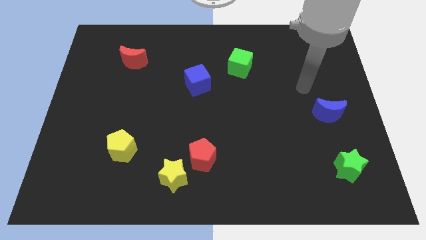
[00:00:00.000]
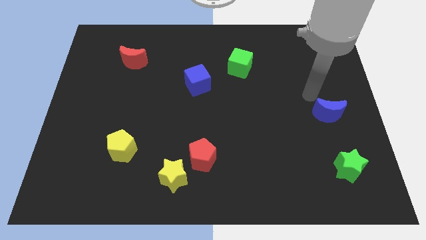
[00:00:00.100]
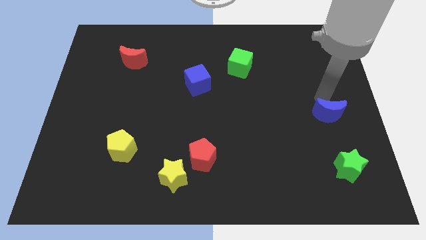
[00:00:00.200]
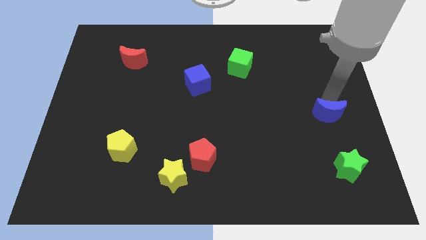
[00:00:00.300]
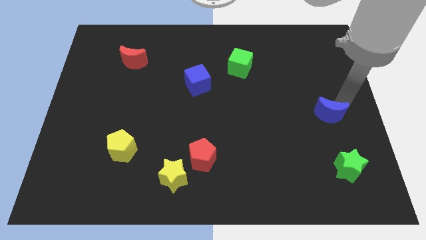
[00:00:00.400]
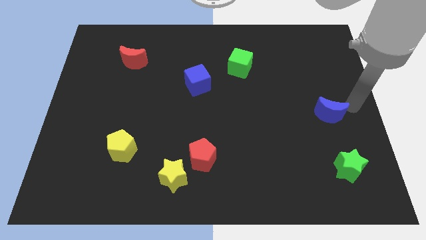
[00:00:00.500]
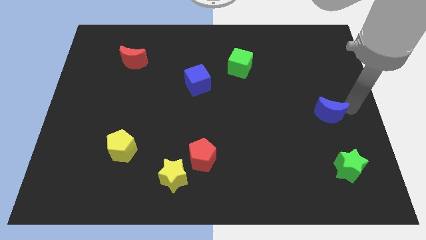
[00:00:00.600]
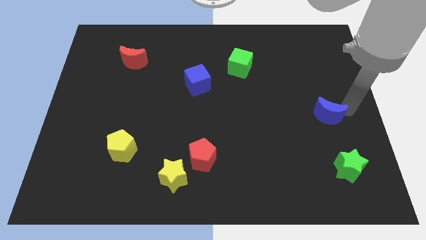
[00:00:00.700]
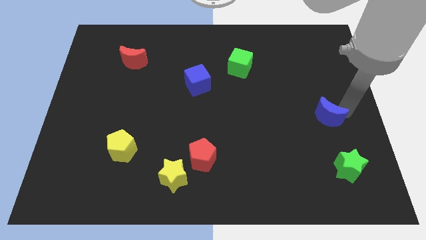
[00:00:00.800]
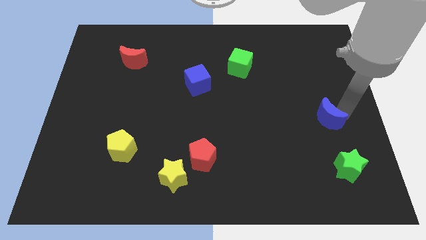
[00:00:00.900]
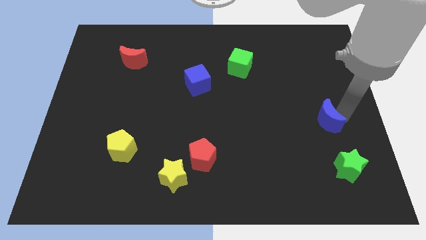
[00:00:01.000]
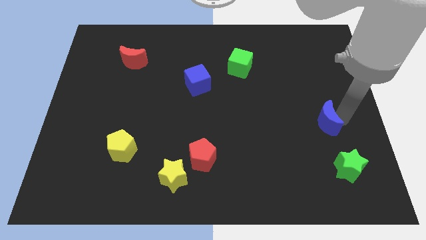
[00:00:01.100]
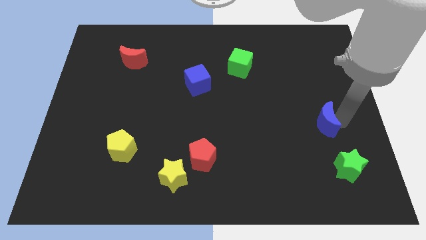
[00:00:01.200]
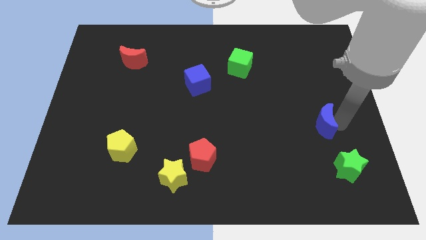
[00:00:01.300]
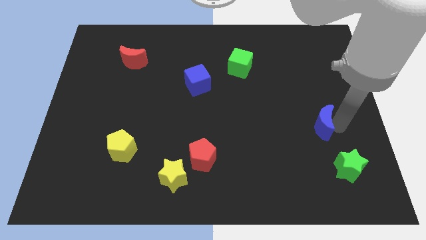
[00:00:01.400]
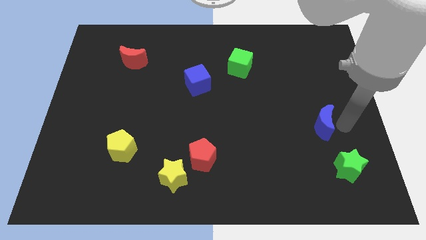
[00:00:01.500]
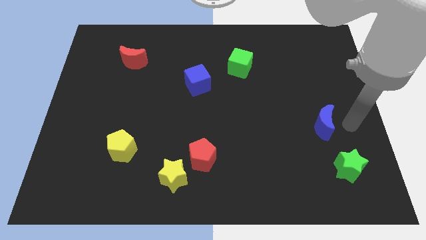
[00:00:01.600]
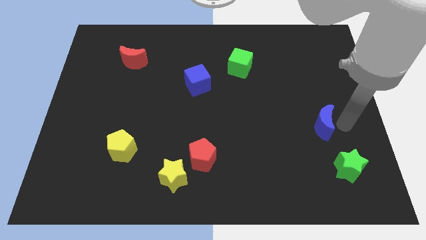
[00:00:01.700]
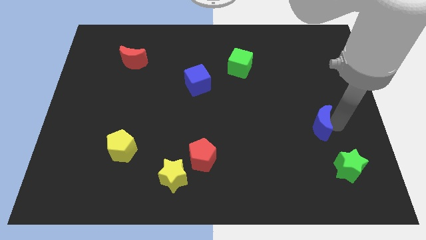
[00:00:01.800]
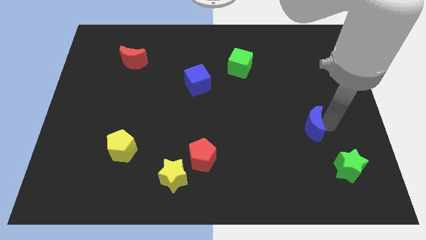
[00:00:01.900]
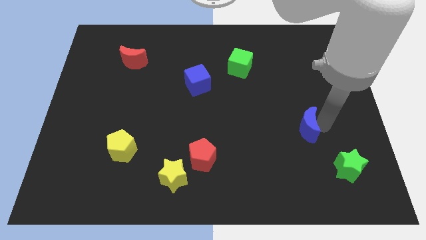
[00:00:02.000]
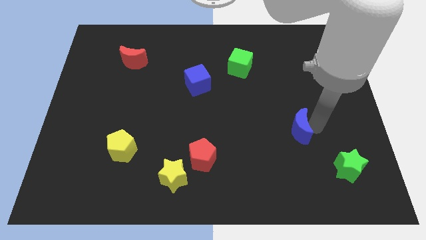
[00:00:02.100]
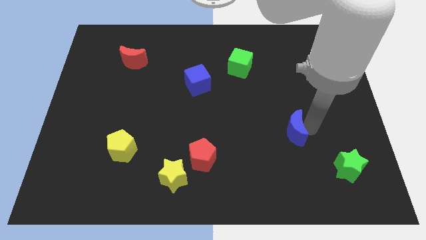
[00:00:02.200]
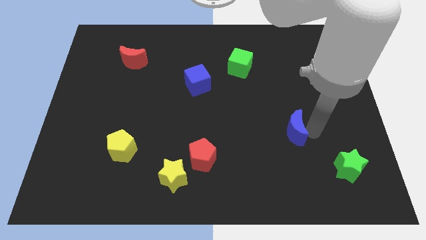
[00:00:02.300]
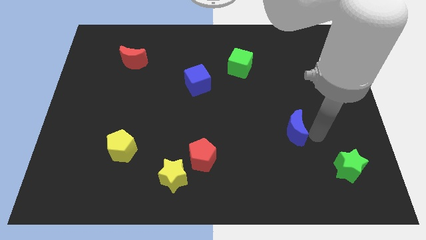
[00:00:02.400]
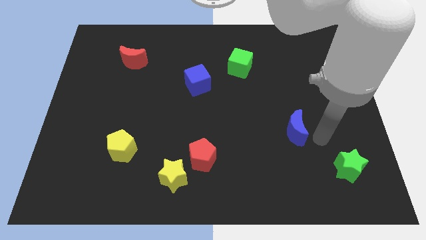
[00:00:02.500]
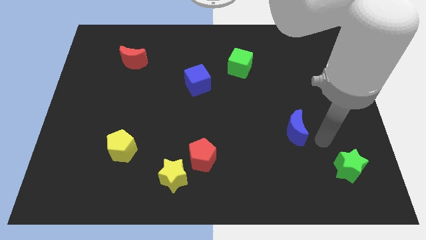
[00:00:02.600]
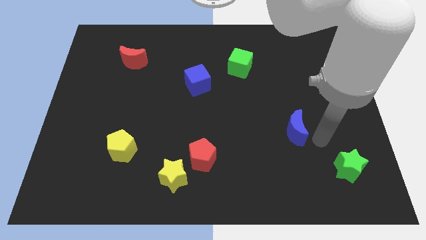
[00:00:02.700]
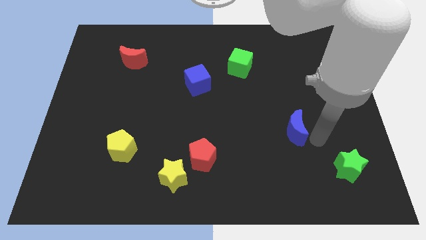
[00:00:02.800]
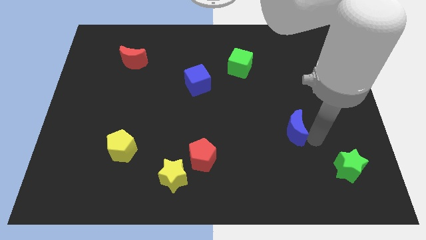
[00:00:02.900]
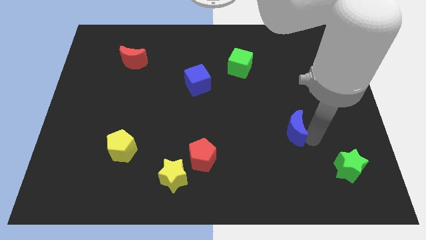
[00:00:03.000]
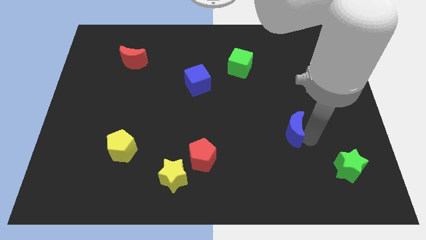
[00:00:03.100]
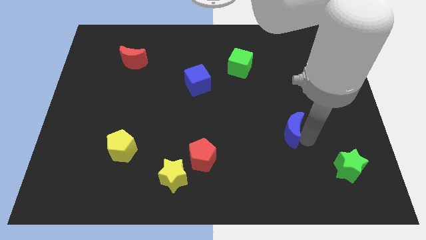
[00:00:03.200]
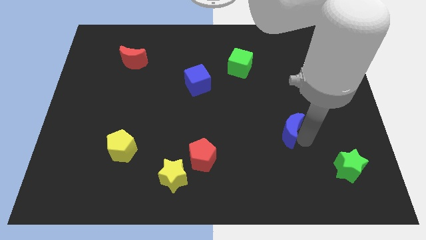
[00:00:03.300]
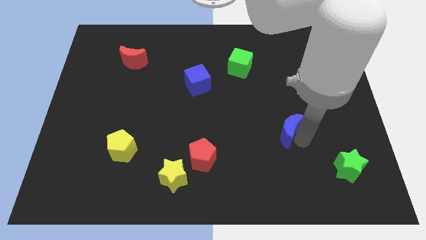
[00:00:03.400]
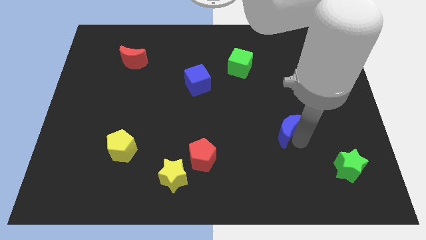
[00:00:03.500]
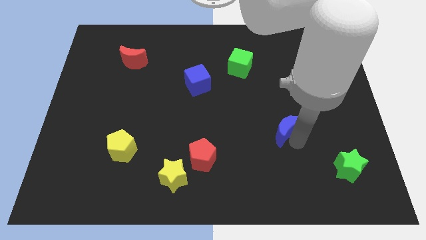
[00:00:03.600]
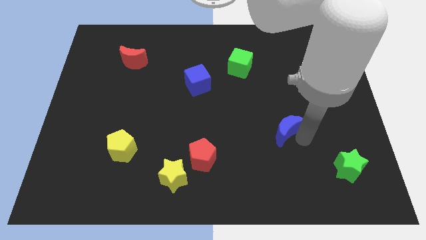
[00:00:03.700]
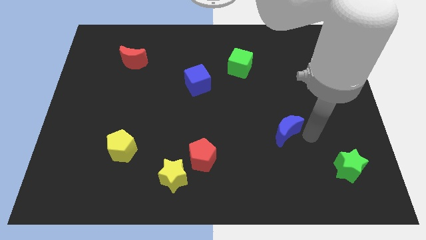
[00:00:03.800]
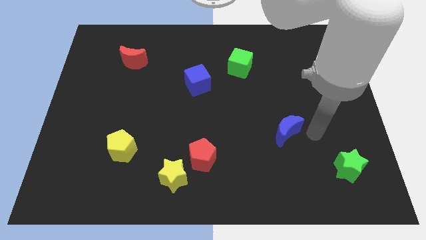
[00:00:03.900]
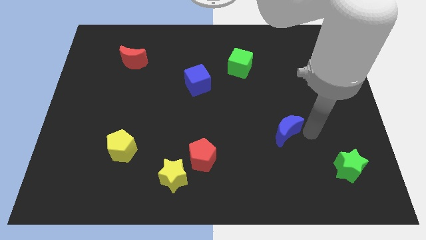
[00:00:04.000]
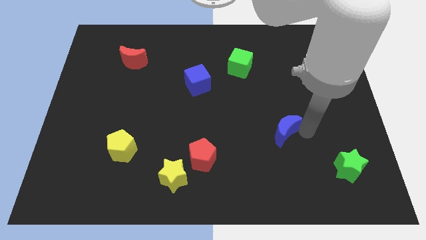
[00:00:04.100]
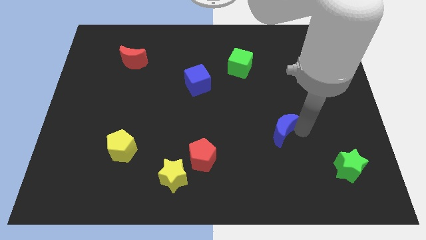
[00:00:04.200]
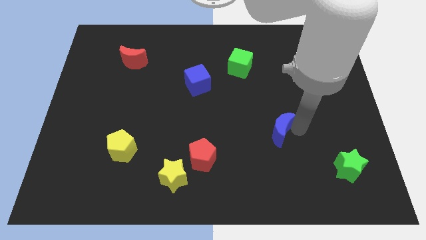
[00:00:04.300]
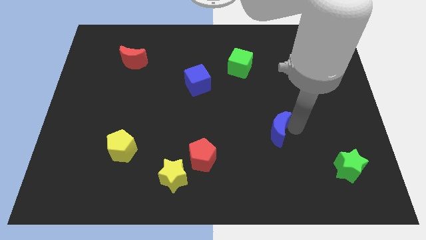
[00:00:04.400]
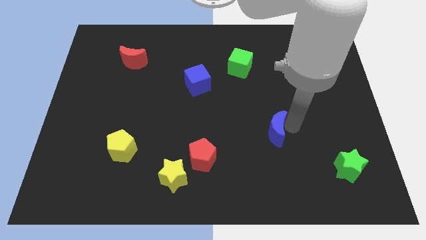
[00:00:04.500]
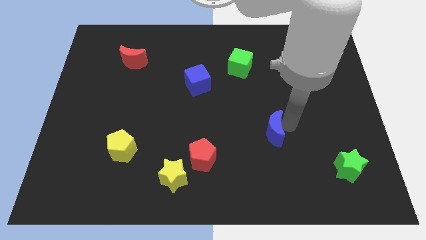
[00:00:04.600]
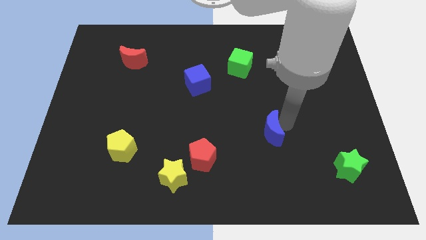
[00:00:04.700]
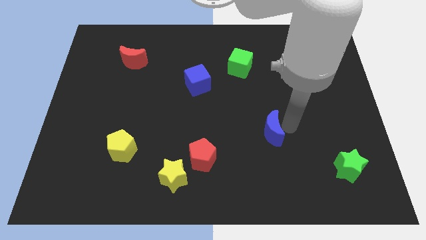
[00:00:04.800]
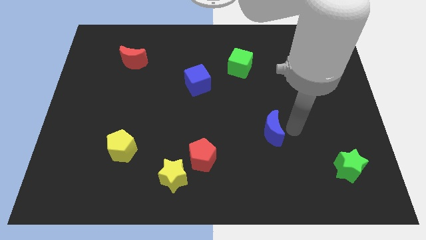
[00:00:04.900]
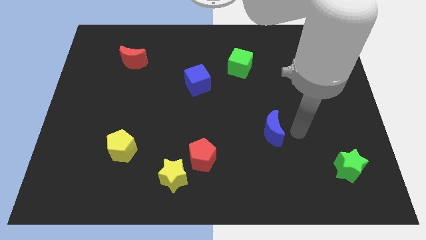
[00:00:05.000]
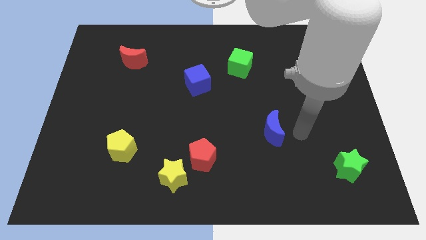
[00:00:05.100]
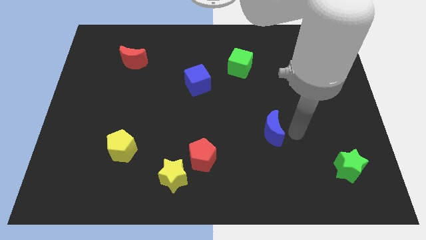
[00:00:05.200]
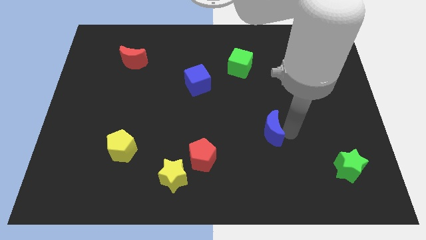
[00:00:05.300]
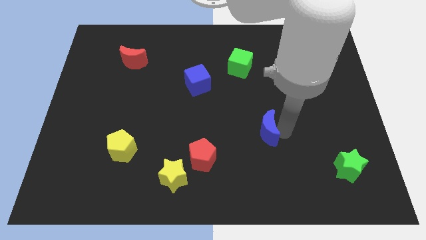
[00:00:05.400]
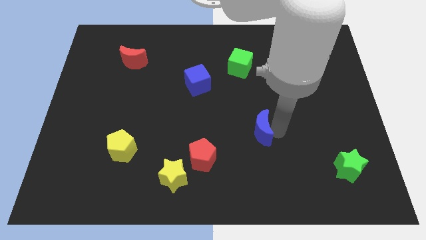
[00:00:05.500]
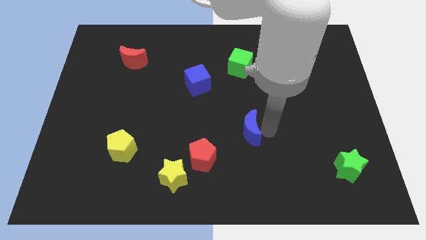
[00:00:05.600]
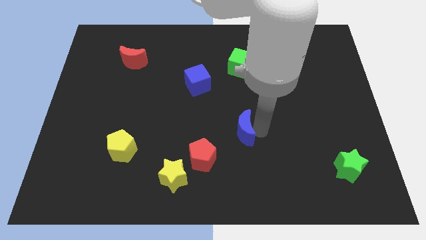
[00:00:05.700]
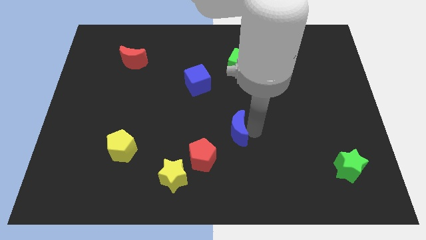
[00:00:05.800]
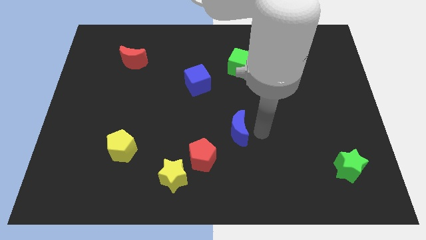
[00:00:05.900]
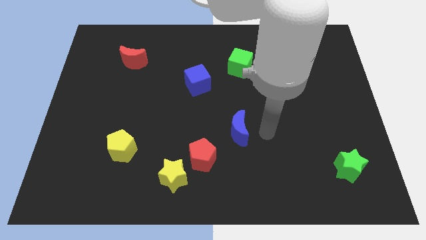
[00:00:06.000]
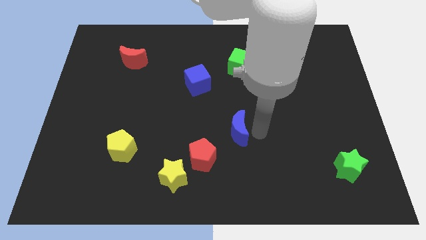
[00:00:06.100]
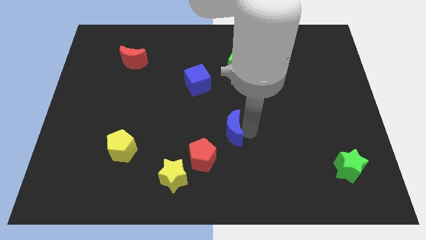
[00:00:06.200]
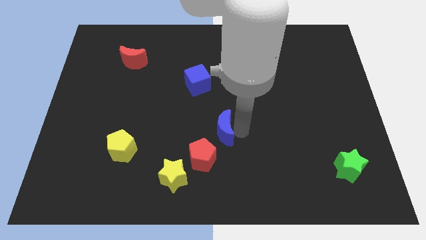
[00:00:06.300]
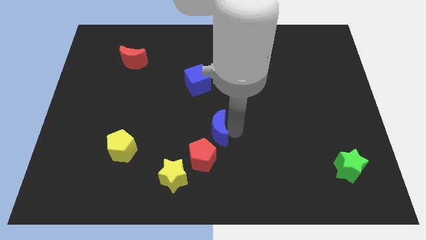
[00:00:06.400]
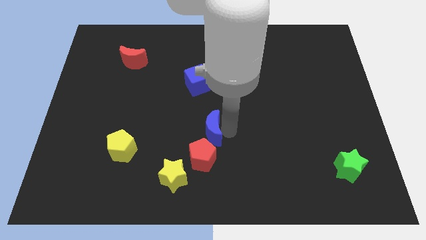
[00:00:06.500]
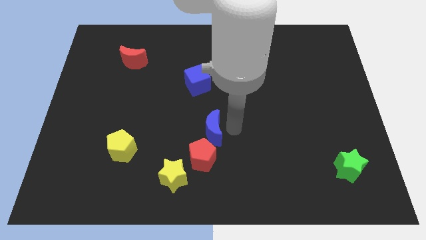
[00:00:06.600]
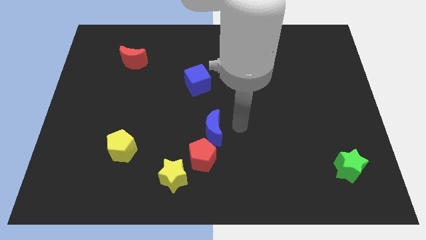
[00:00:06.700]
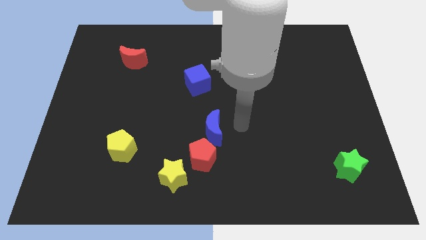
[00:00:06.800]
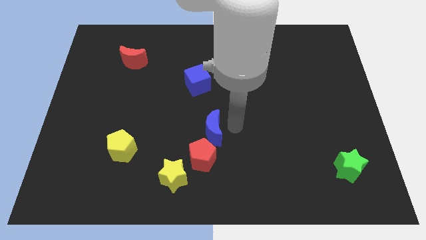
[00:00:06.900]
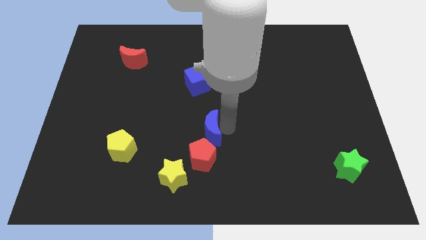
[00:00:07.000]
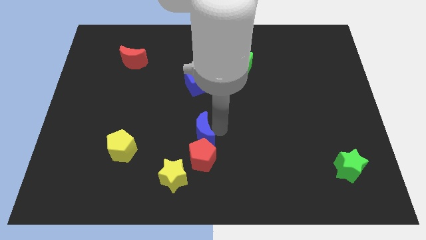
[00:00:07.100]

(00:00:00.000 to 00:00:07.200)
put the blue moon to the top left of the red pentagon
